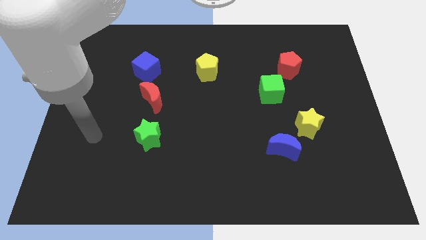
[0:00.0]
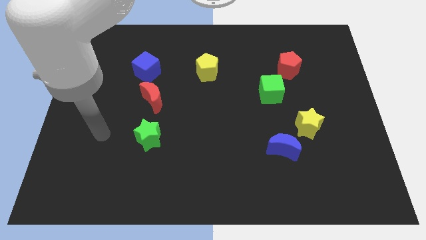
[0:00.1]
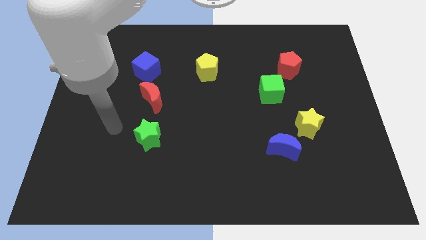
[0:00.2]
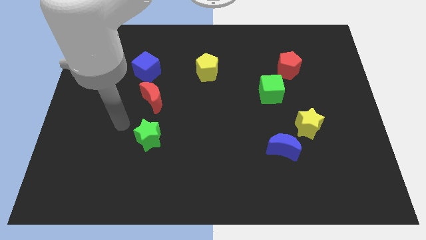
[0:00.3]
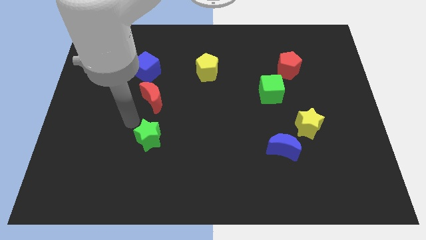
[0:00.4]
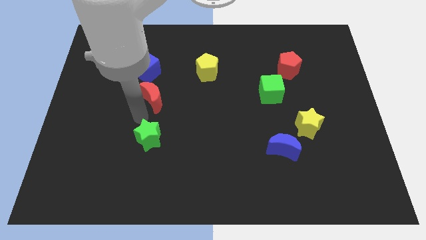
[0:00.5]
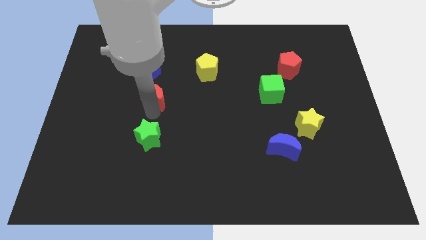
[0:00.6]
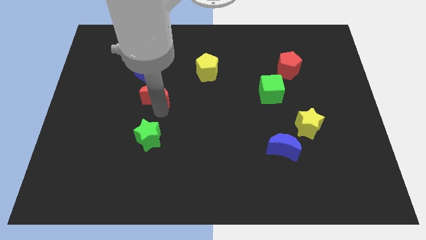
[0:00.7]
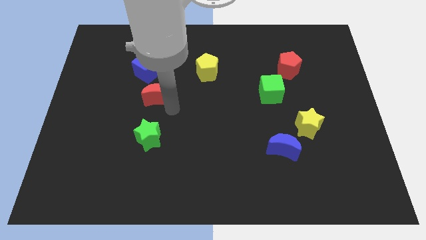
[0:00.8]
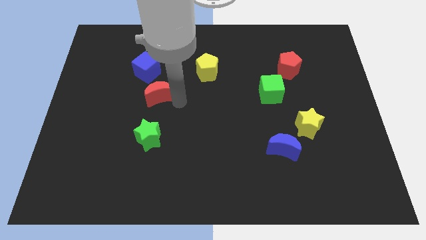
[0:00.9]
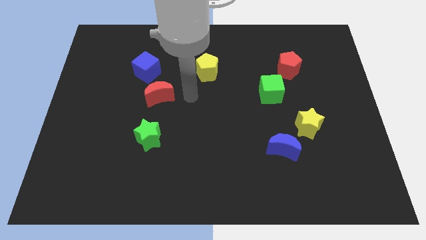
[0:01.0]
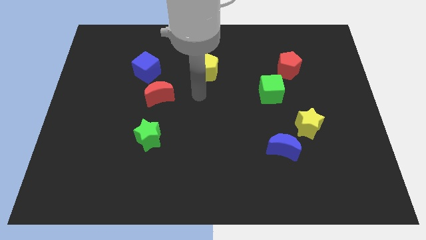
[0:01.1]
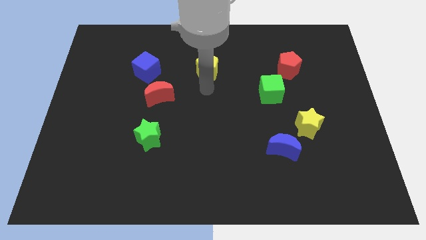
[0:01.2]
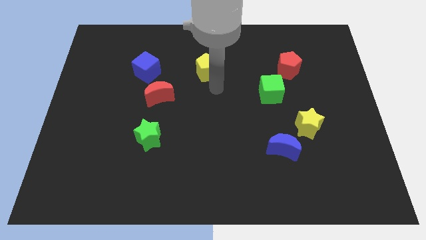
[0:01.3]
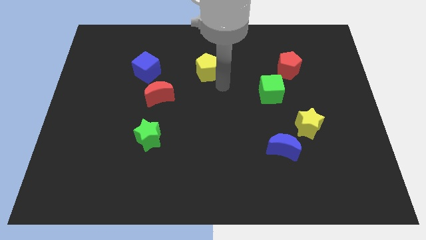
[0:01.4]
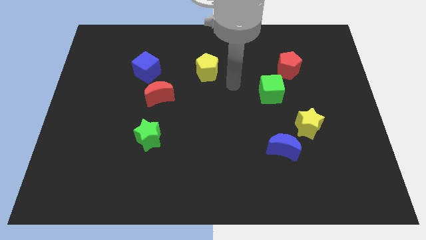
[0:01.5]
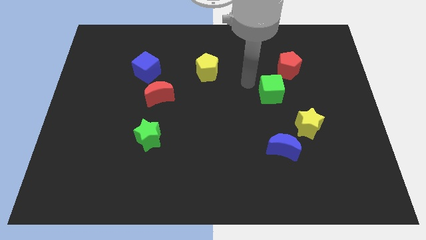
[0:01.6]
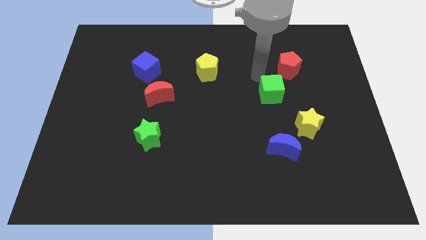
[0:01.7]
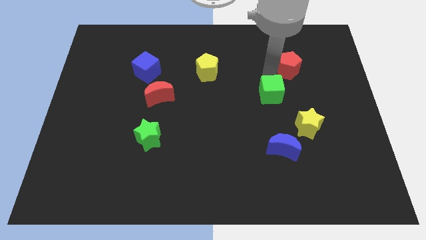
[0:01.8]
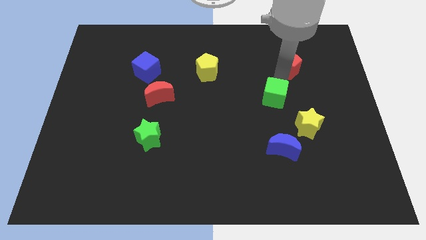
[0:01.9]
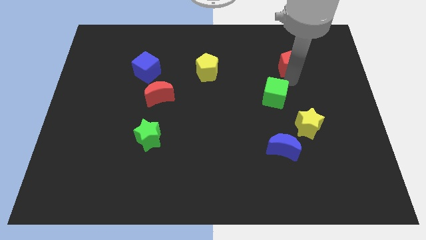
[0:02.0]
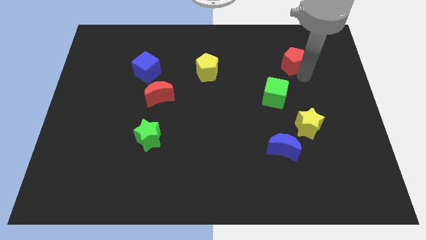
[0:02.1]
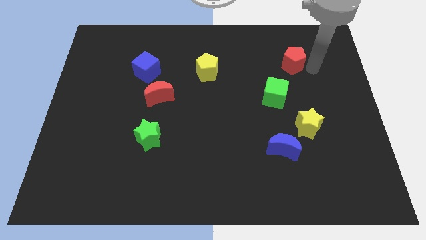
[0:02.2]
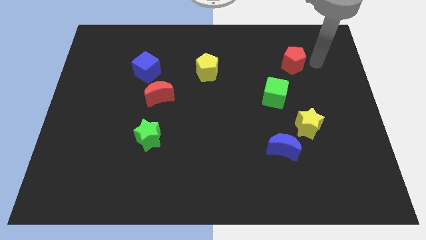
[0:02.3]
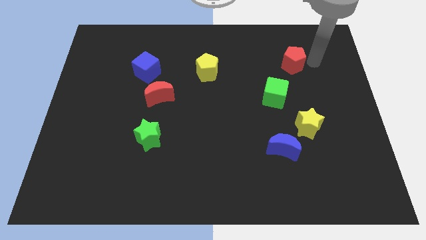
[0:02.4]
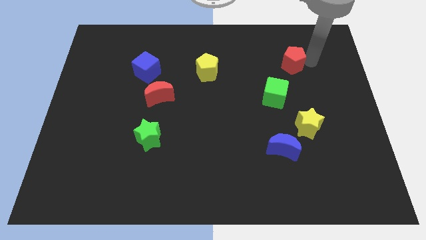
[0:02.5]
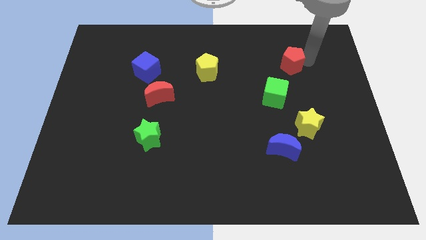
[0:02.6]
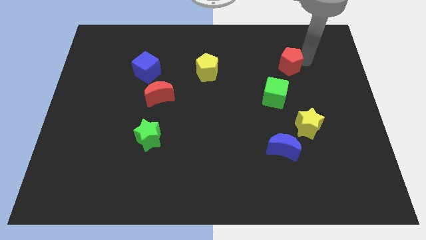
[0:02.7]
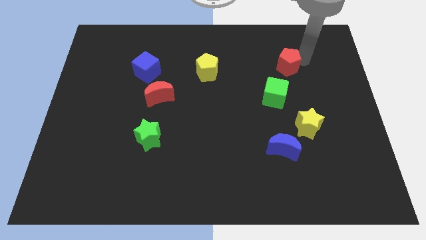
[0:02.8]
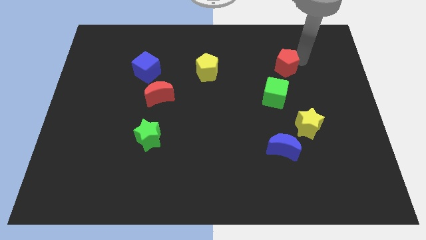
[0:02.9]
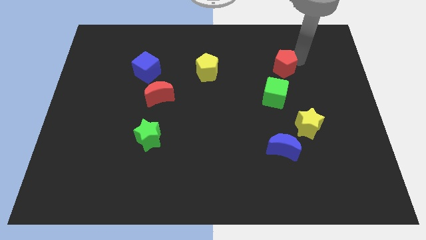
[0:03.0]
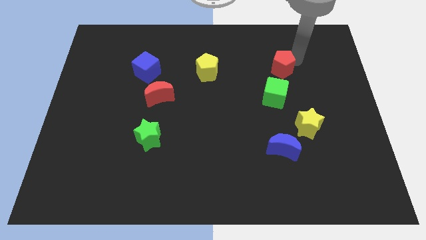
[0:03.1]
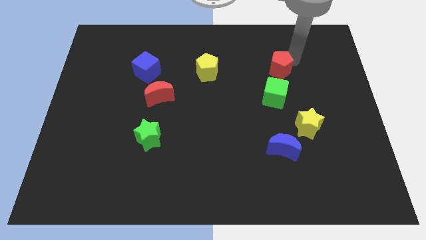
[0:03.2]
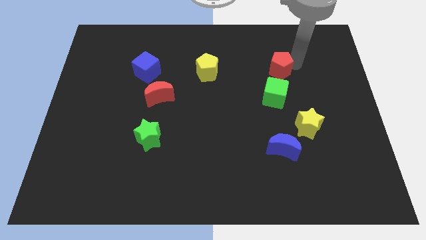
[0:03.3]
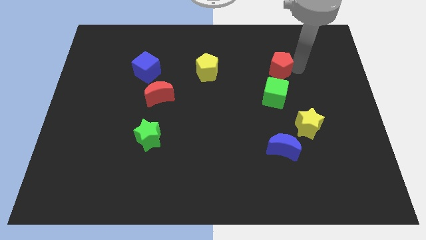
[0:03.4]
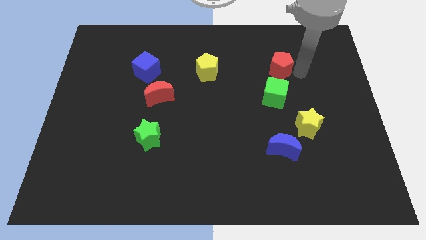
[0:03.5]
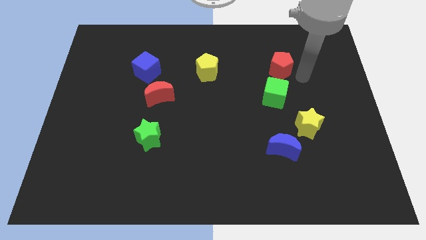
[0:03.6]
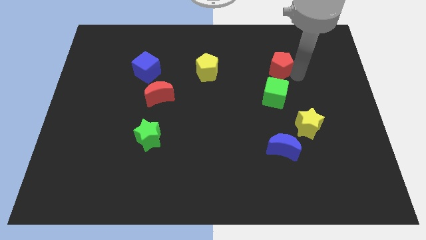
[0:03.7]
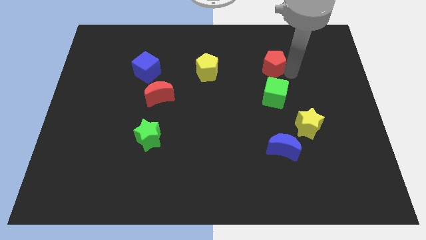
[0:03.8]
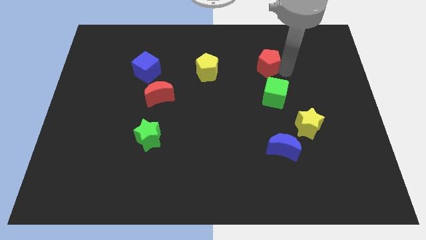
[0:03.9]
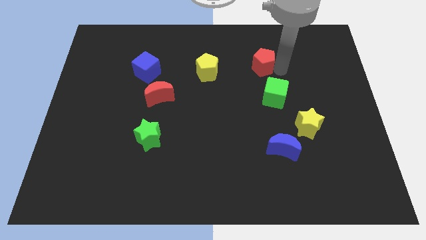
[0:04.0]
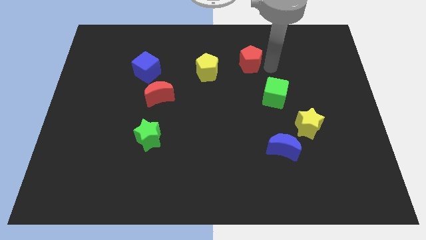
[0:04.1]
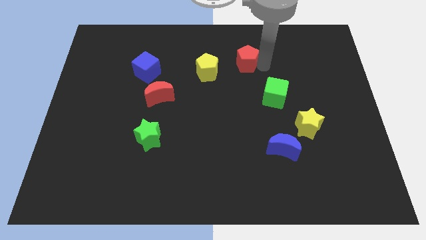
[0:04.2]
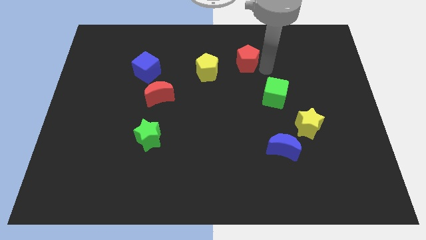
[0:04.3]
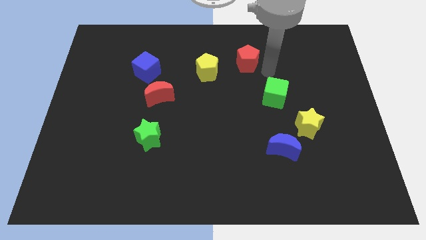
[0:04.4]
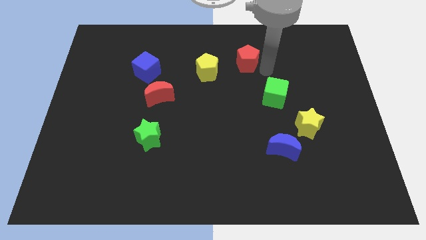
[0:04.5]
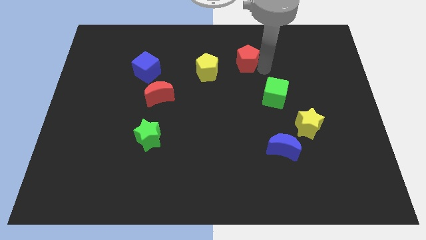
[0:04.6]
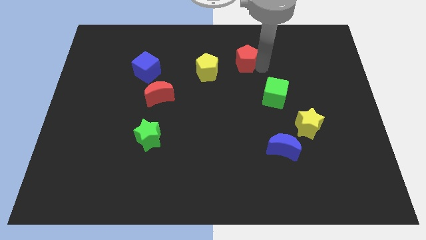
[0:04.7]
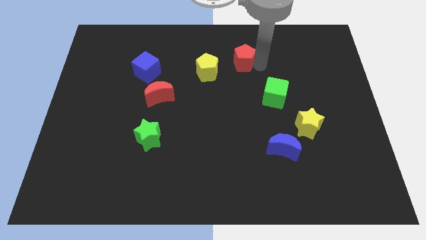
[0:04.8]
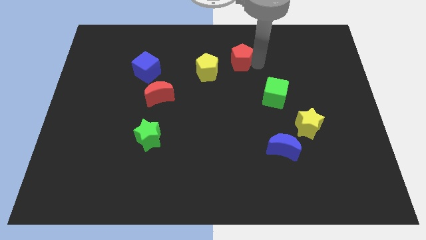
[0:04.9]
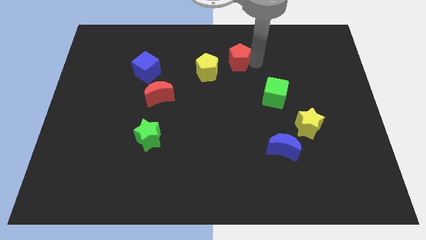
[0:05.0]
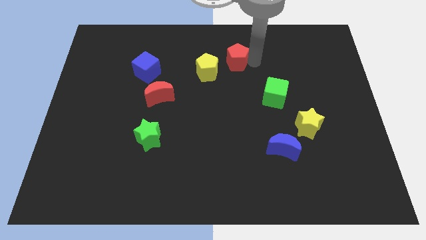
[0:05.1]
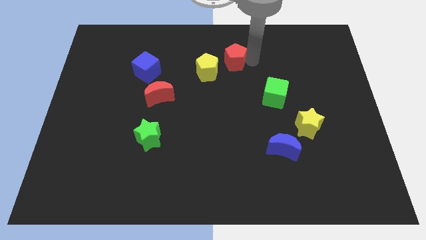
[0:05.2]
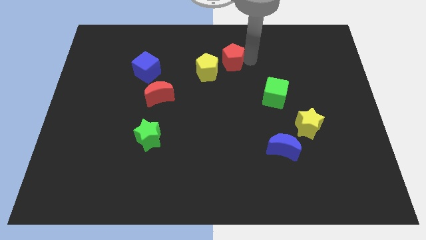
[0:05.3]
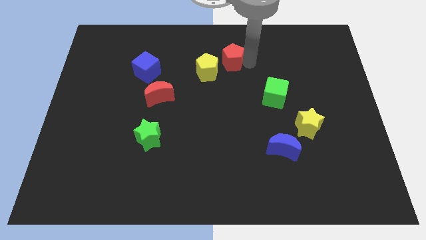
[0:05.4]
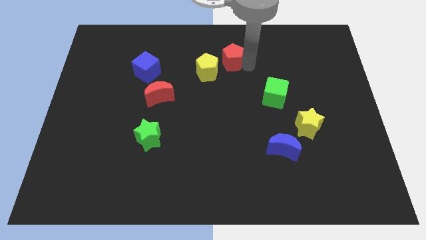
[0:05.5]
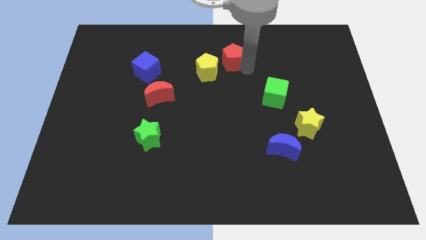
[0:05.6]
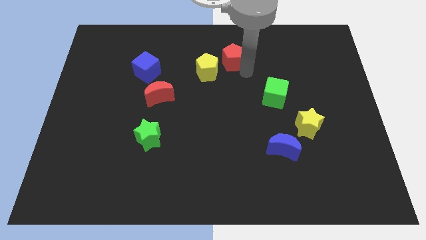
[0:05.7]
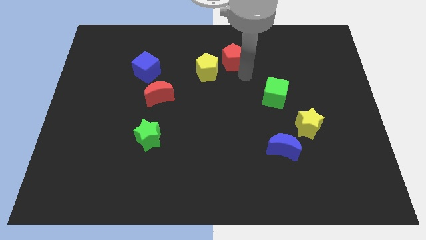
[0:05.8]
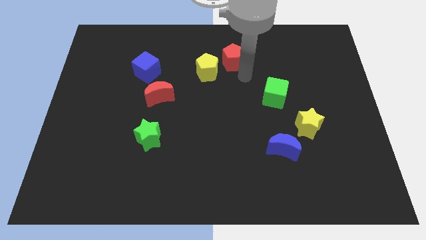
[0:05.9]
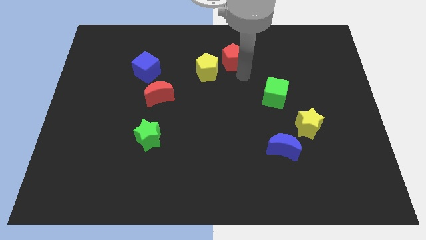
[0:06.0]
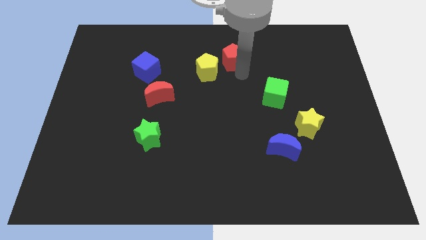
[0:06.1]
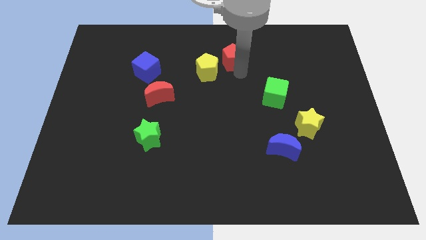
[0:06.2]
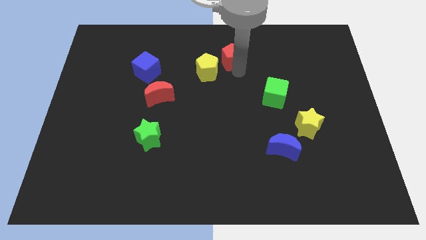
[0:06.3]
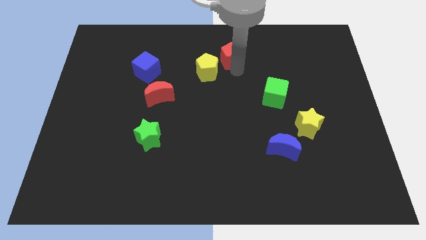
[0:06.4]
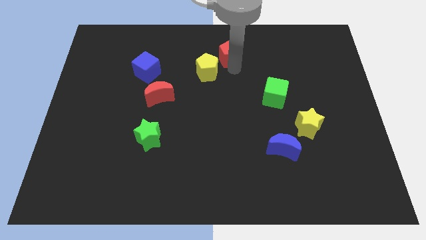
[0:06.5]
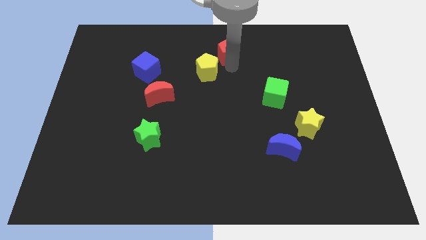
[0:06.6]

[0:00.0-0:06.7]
put the red pentagon to the top side

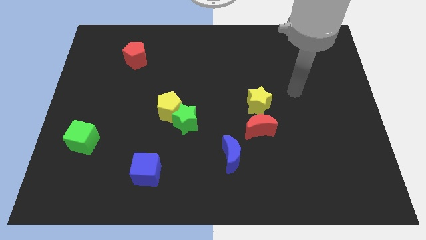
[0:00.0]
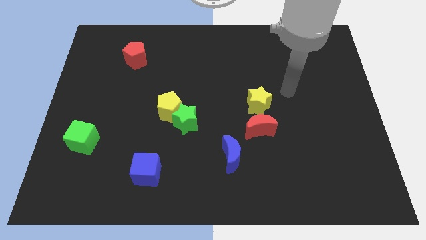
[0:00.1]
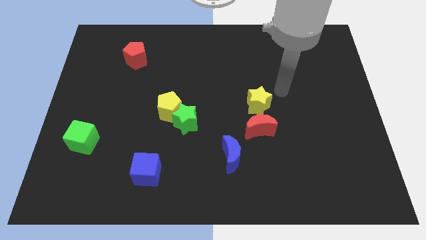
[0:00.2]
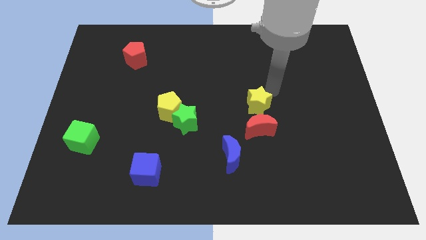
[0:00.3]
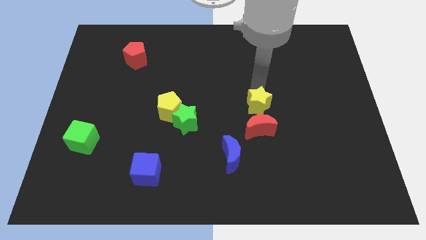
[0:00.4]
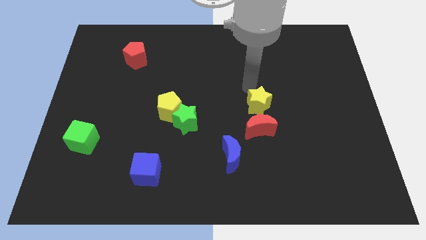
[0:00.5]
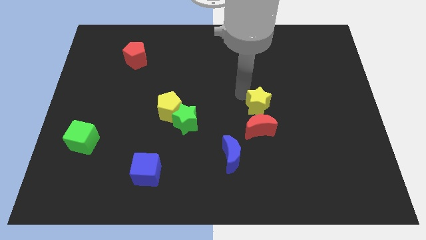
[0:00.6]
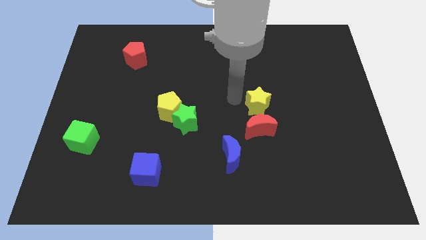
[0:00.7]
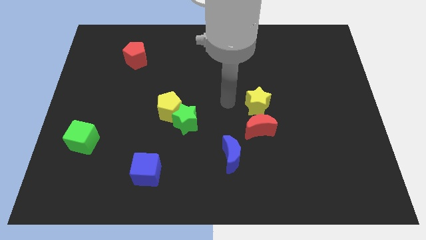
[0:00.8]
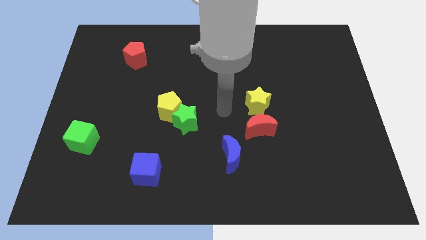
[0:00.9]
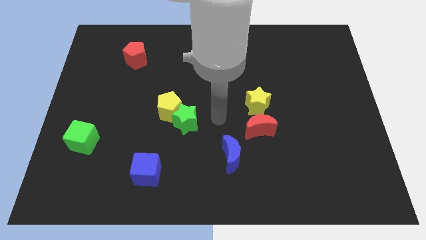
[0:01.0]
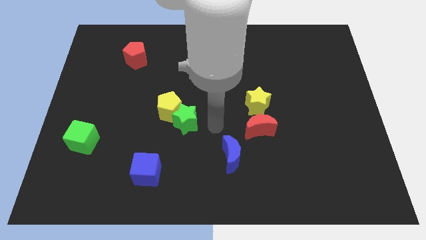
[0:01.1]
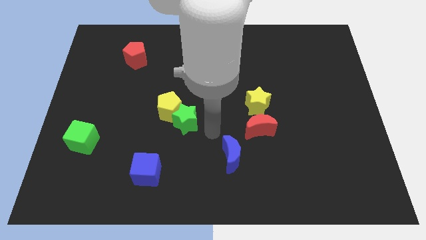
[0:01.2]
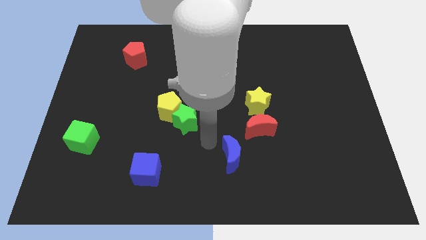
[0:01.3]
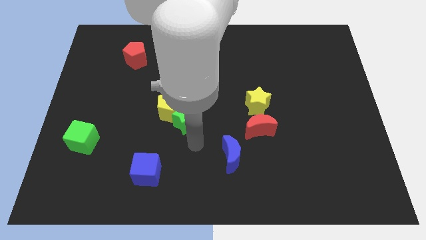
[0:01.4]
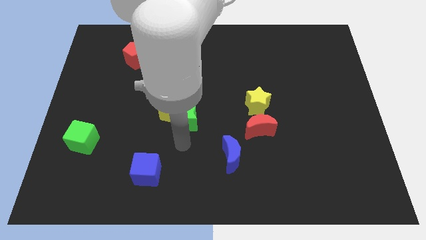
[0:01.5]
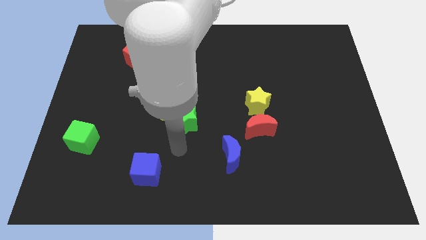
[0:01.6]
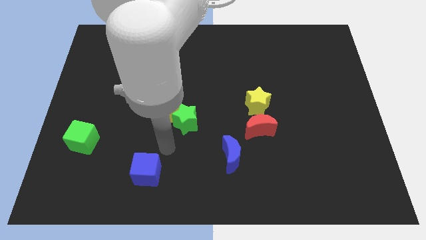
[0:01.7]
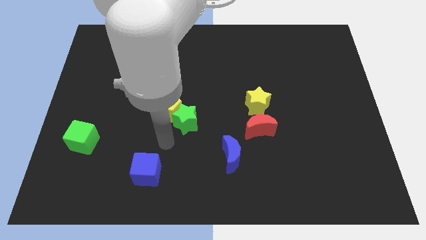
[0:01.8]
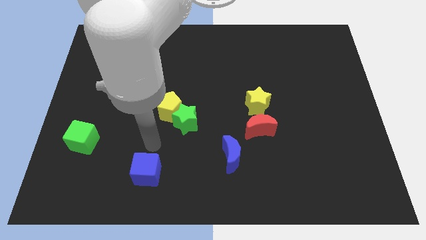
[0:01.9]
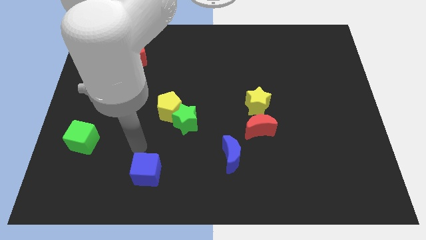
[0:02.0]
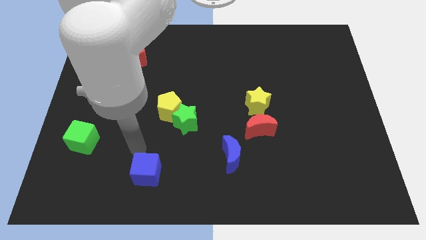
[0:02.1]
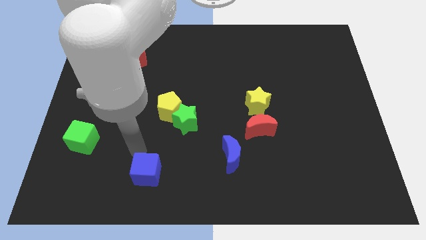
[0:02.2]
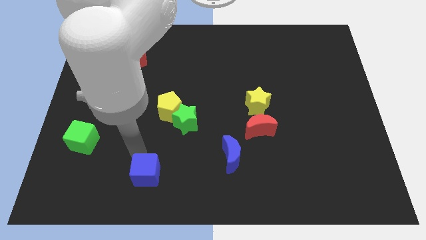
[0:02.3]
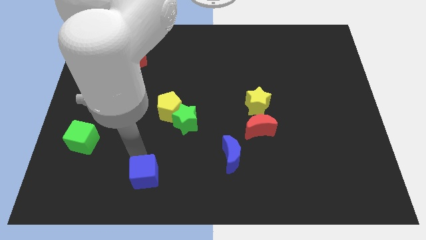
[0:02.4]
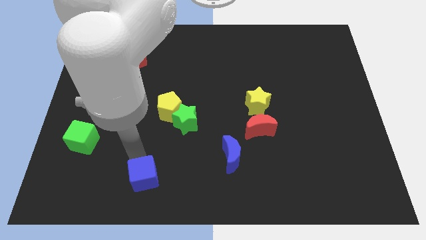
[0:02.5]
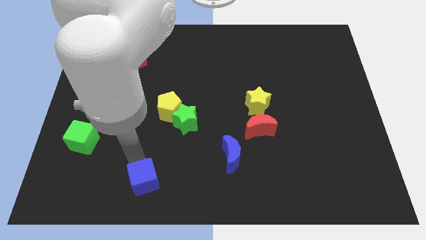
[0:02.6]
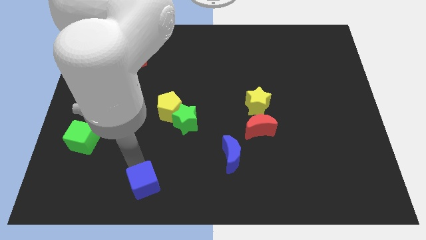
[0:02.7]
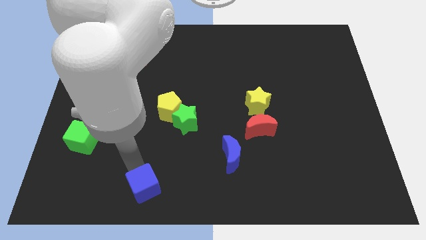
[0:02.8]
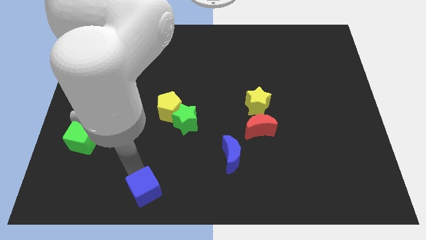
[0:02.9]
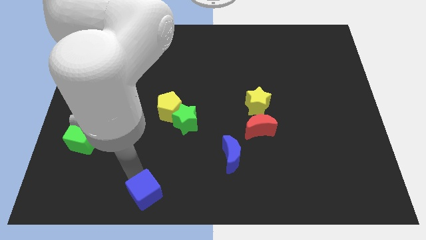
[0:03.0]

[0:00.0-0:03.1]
push the blue cube to the bottom
